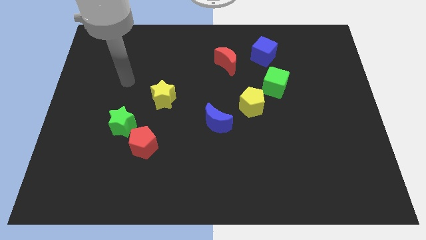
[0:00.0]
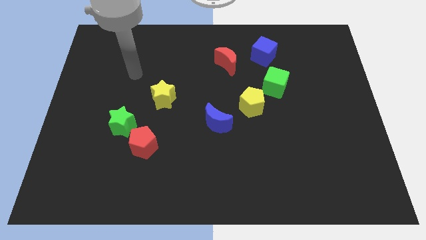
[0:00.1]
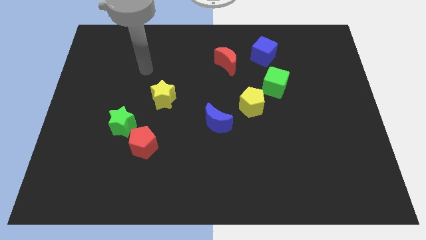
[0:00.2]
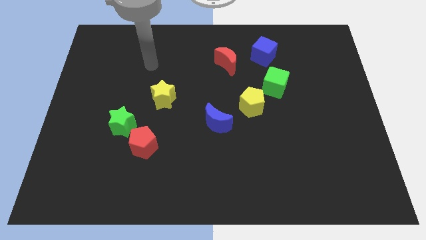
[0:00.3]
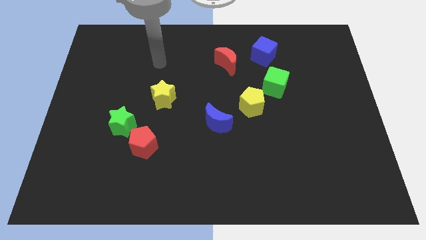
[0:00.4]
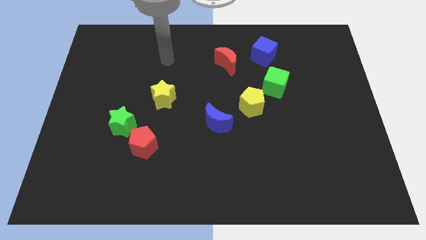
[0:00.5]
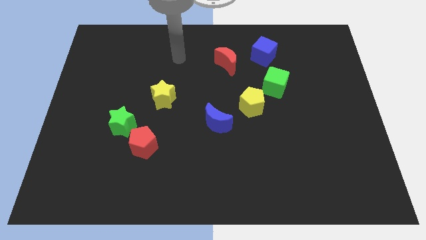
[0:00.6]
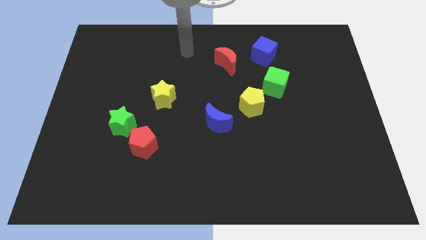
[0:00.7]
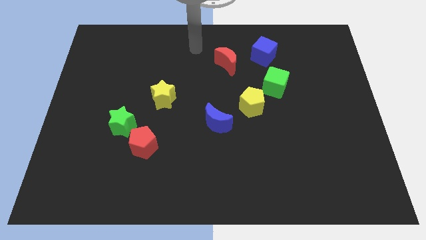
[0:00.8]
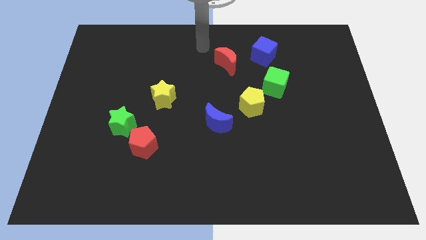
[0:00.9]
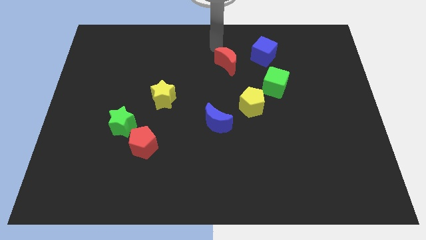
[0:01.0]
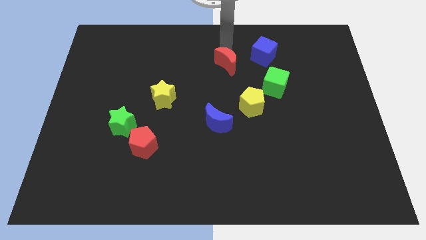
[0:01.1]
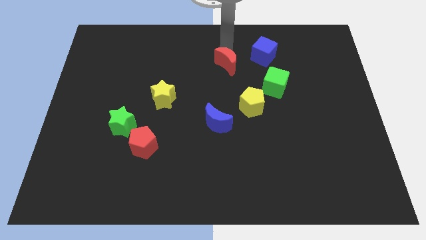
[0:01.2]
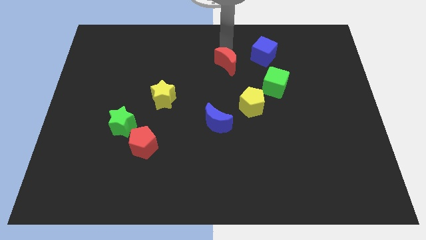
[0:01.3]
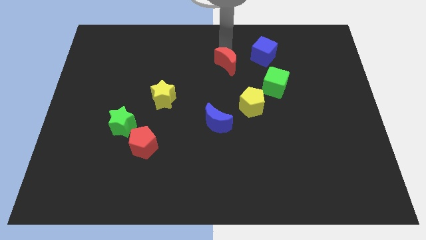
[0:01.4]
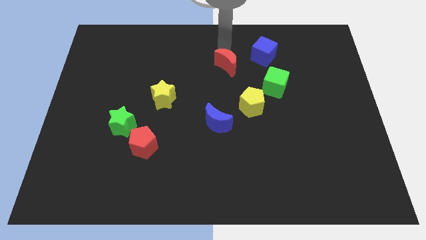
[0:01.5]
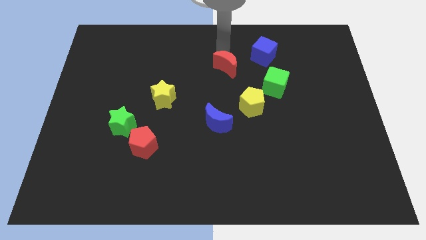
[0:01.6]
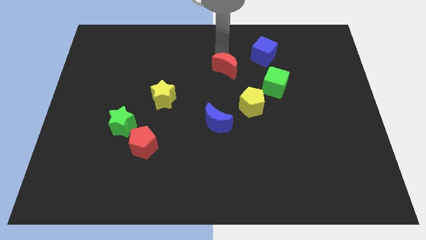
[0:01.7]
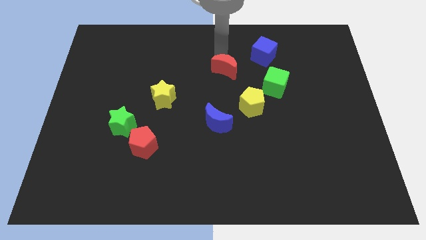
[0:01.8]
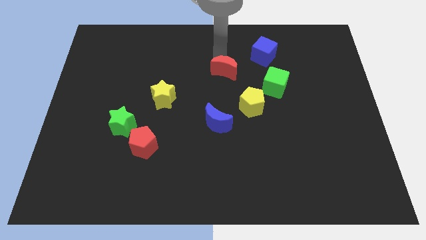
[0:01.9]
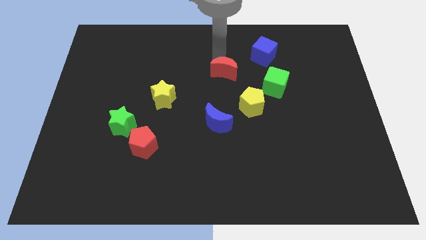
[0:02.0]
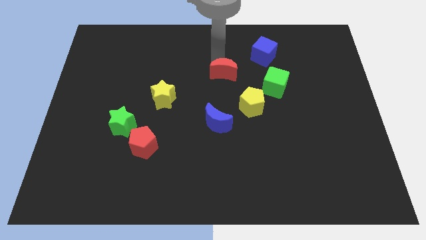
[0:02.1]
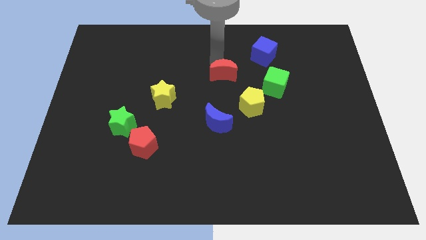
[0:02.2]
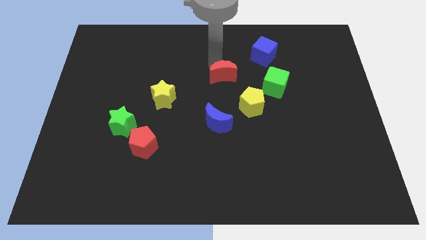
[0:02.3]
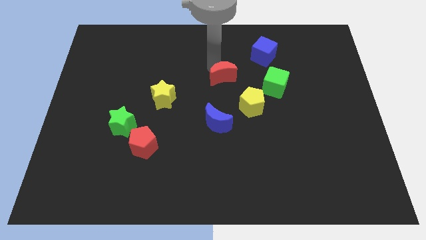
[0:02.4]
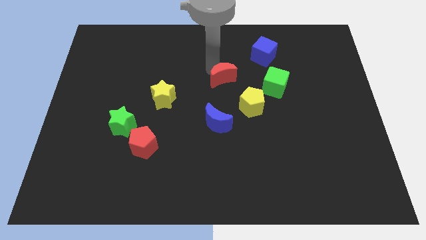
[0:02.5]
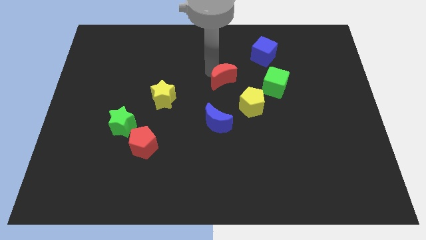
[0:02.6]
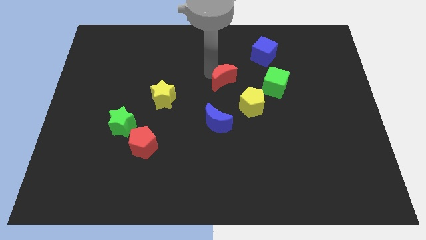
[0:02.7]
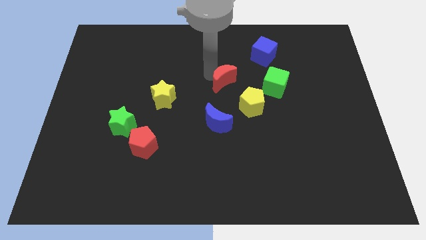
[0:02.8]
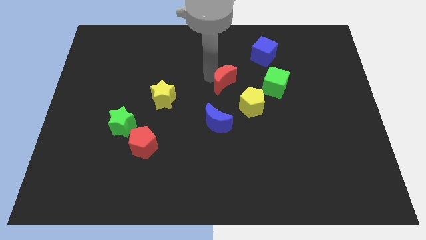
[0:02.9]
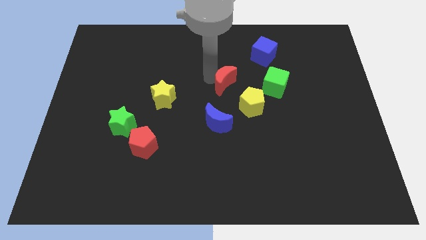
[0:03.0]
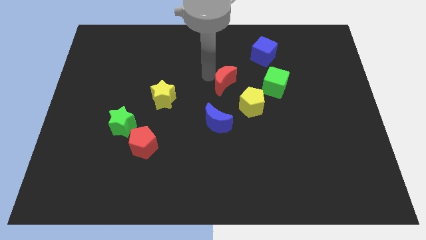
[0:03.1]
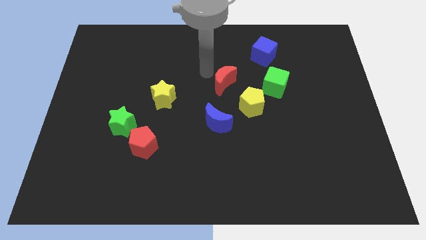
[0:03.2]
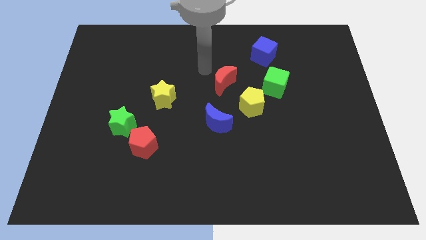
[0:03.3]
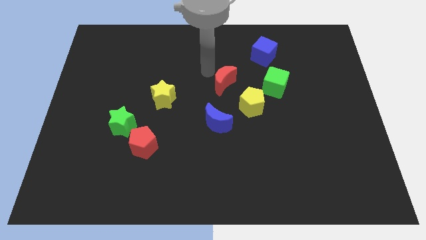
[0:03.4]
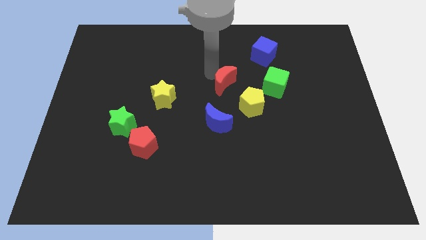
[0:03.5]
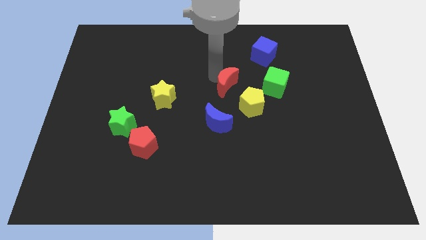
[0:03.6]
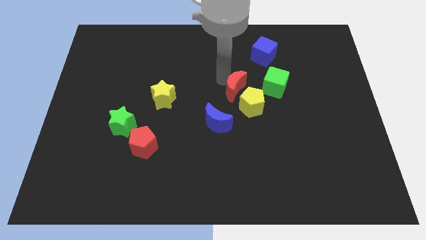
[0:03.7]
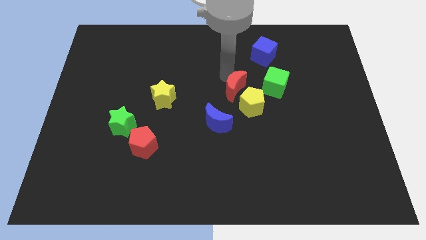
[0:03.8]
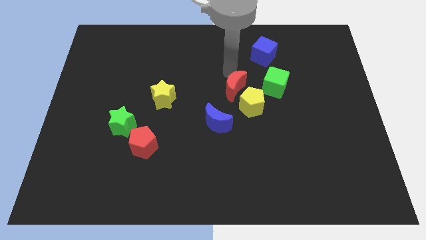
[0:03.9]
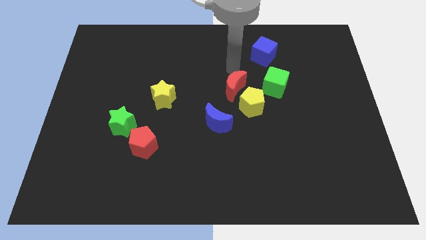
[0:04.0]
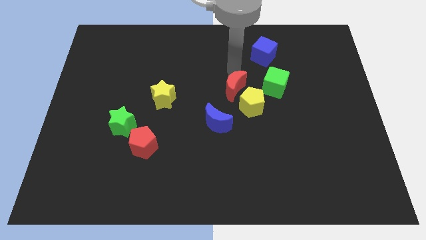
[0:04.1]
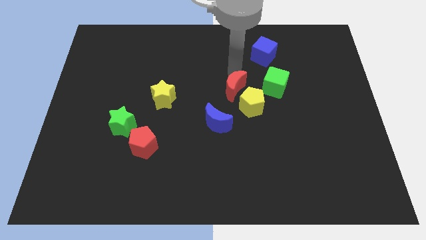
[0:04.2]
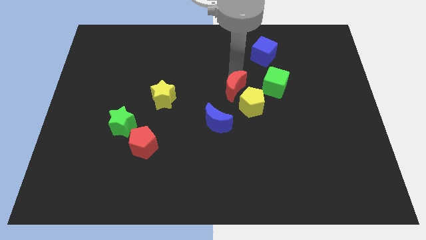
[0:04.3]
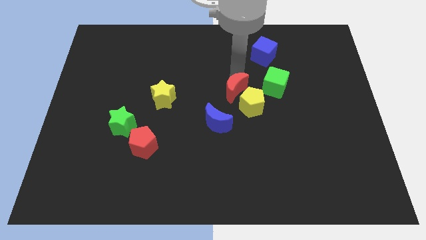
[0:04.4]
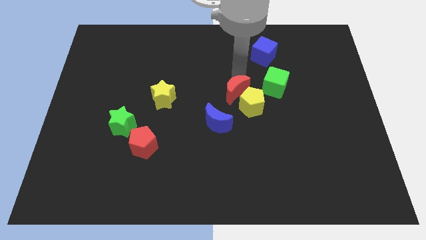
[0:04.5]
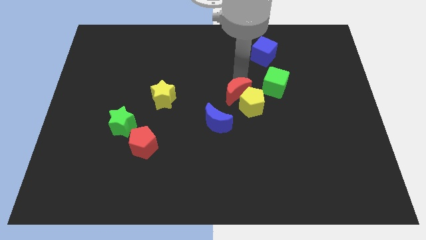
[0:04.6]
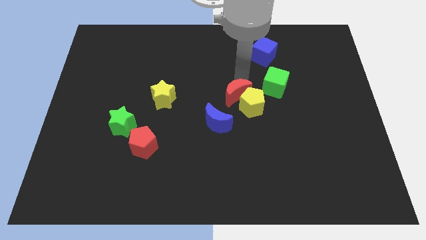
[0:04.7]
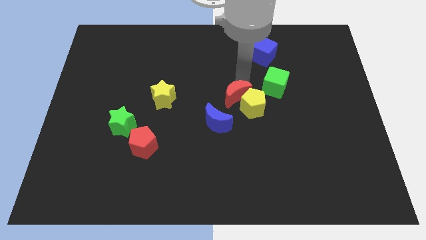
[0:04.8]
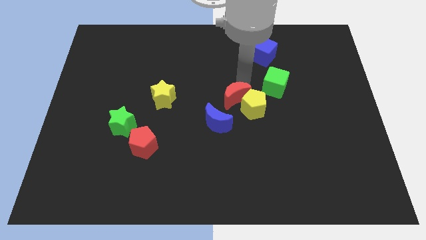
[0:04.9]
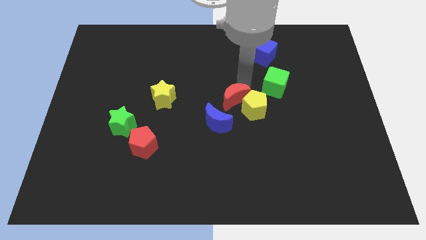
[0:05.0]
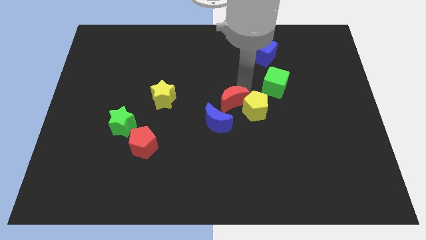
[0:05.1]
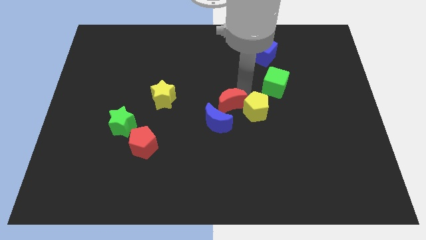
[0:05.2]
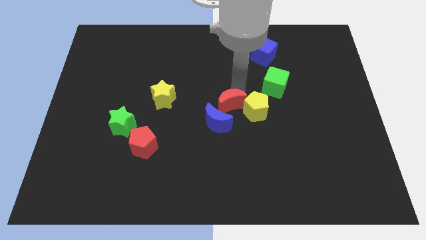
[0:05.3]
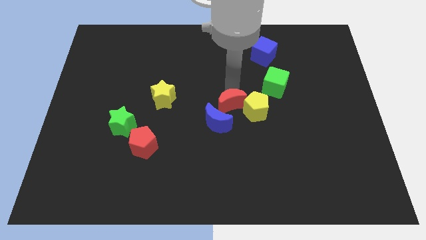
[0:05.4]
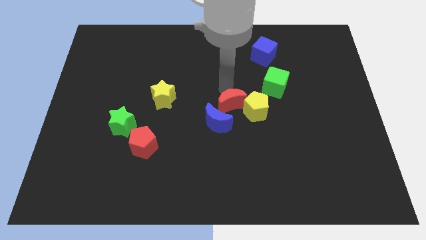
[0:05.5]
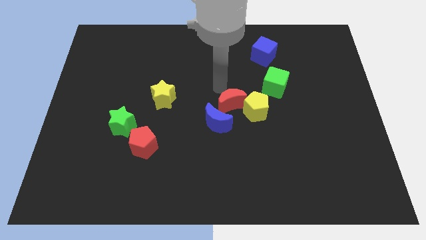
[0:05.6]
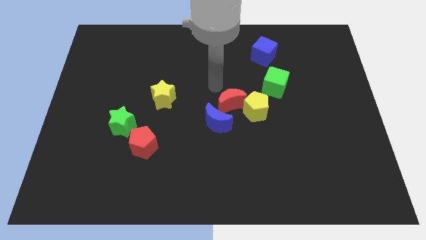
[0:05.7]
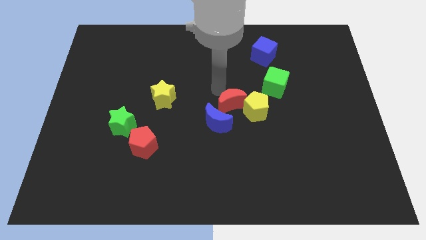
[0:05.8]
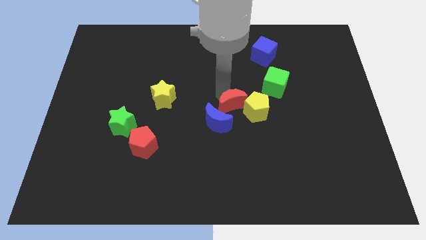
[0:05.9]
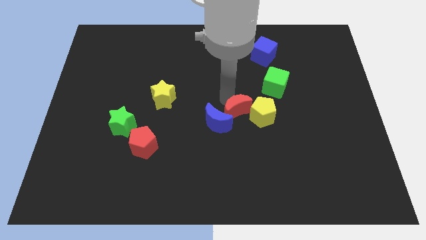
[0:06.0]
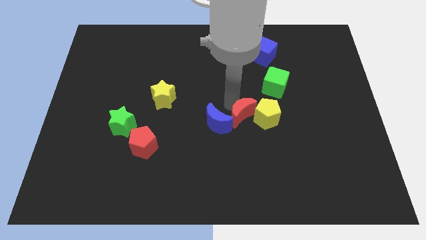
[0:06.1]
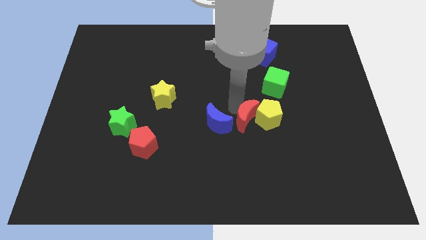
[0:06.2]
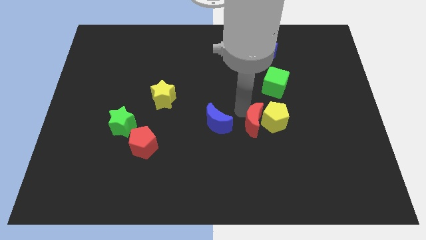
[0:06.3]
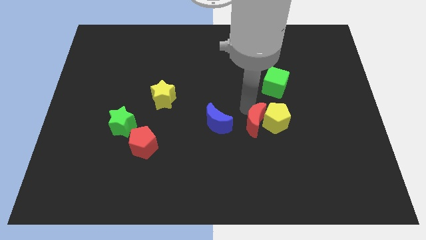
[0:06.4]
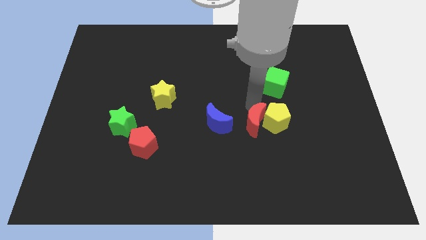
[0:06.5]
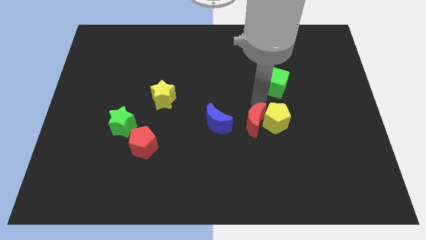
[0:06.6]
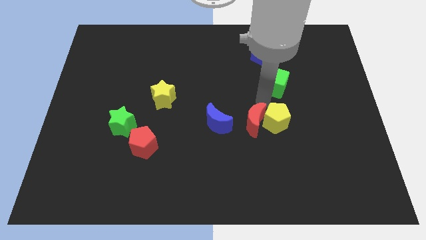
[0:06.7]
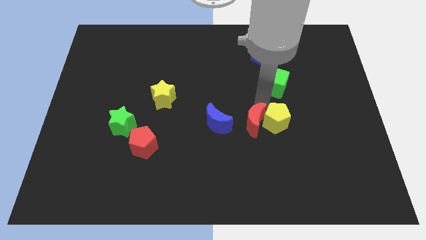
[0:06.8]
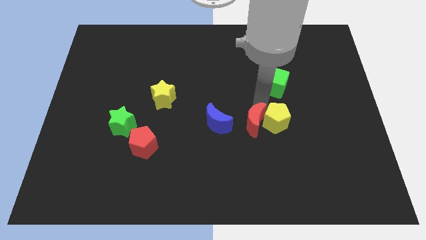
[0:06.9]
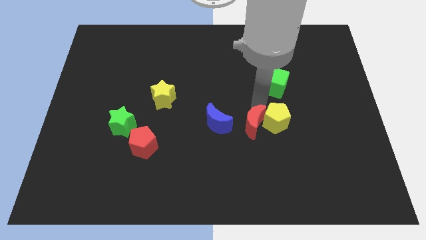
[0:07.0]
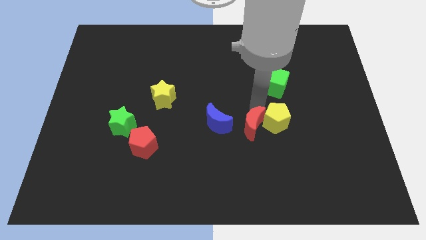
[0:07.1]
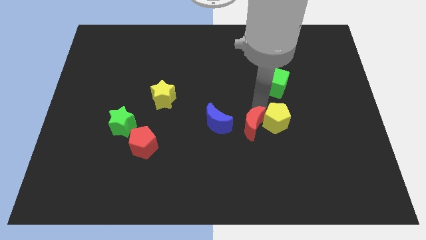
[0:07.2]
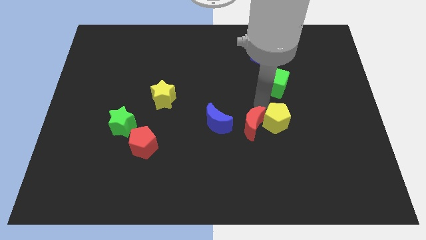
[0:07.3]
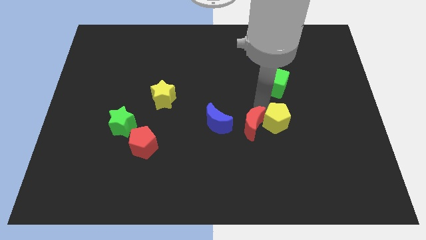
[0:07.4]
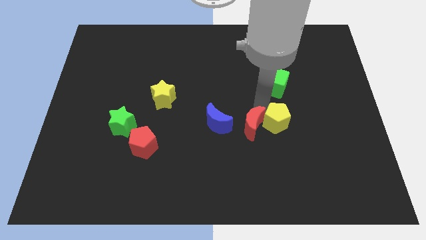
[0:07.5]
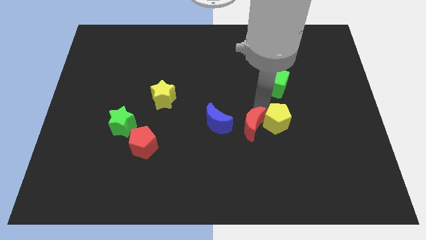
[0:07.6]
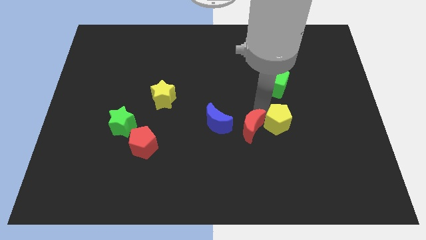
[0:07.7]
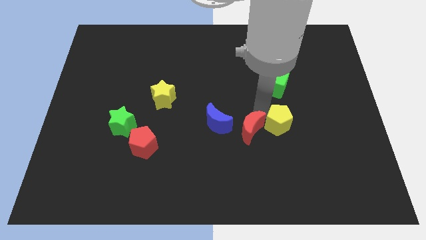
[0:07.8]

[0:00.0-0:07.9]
move the red moon down
